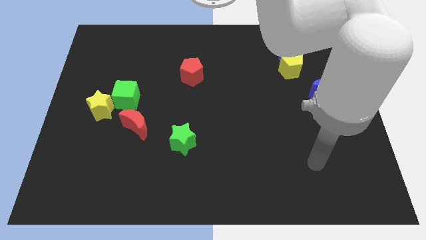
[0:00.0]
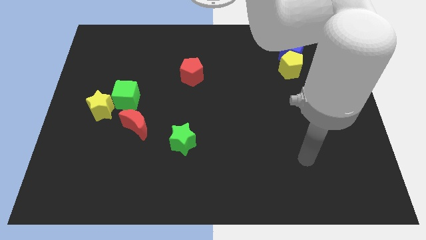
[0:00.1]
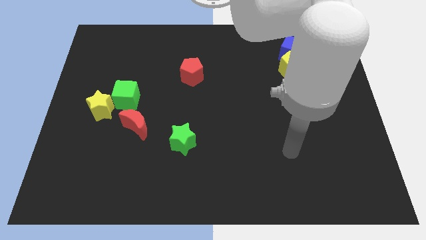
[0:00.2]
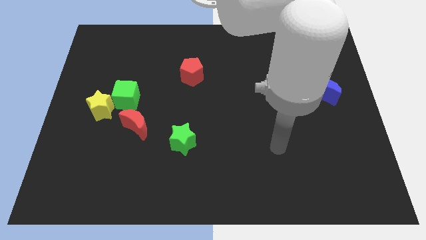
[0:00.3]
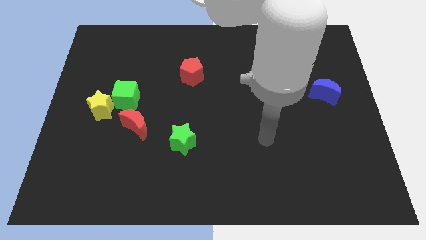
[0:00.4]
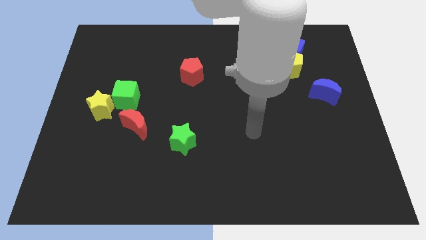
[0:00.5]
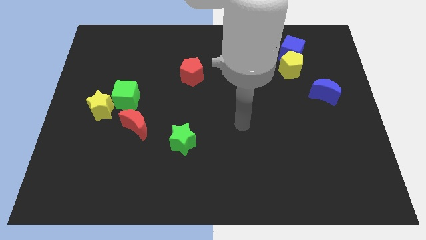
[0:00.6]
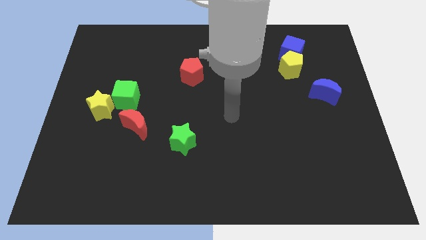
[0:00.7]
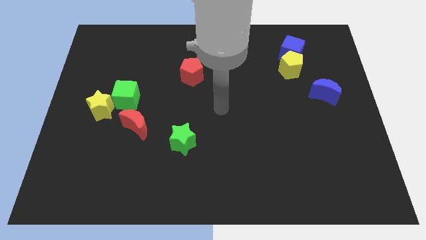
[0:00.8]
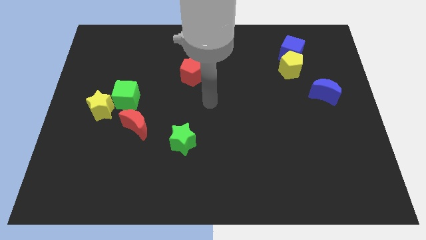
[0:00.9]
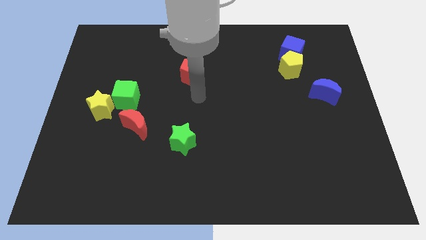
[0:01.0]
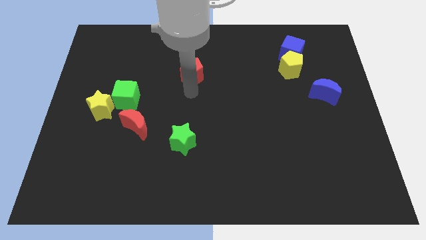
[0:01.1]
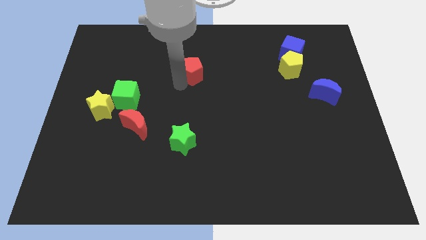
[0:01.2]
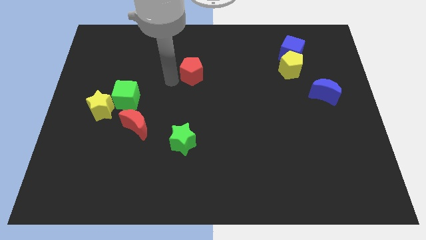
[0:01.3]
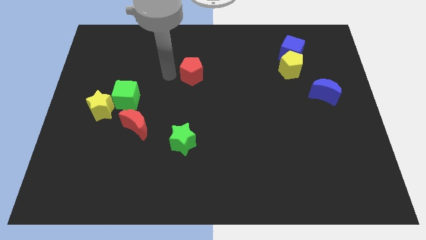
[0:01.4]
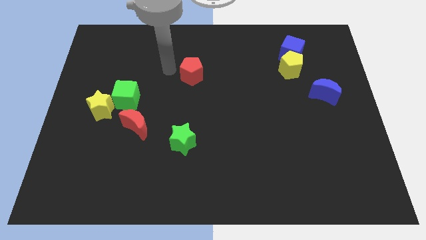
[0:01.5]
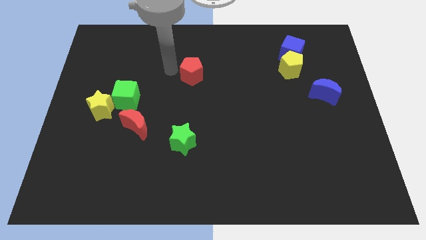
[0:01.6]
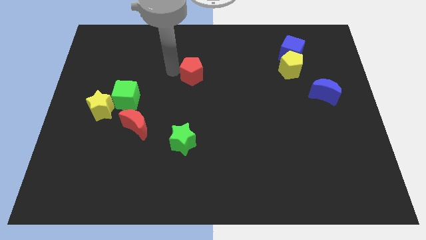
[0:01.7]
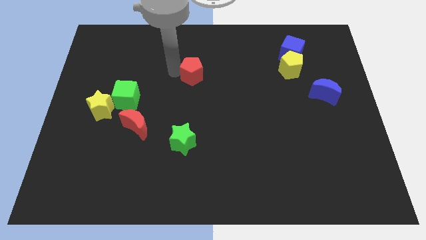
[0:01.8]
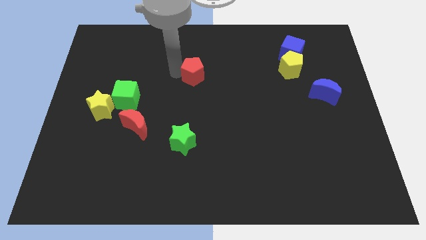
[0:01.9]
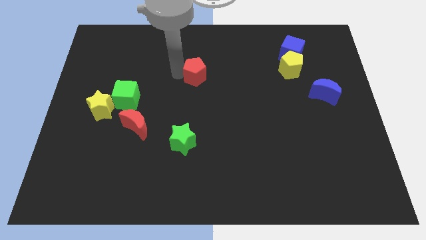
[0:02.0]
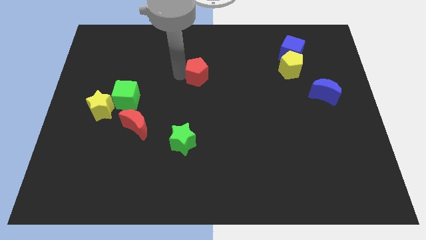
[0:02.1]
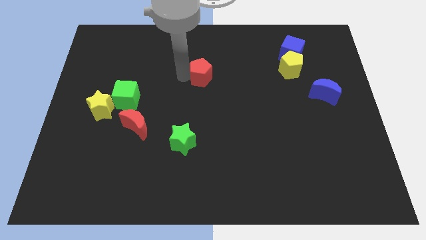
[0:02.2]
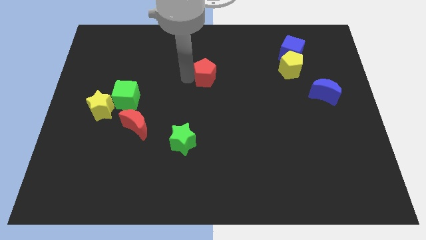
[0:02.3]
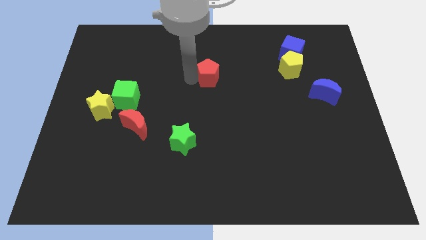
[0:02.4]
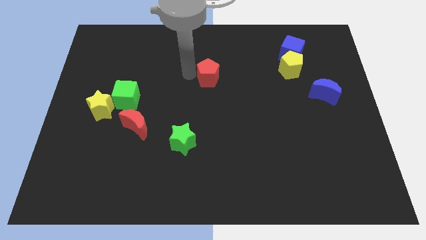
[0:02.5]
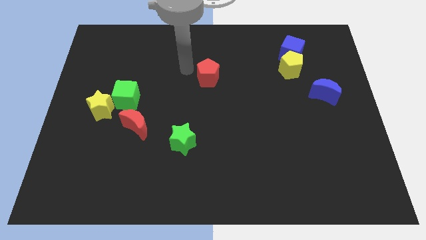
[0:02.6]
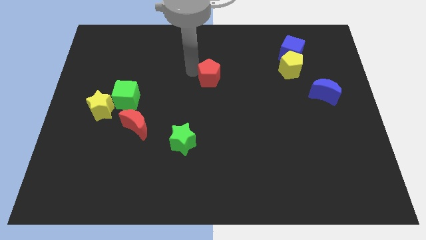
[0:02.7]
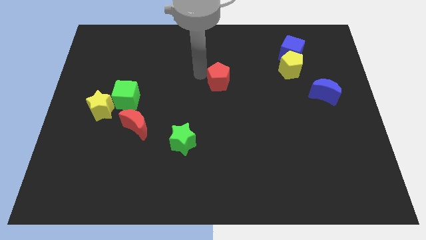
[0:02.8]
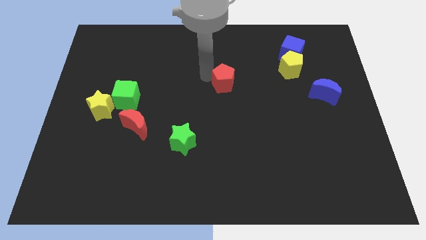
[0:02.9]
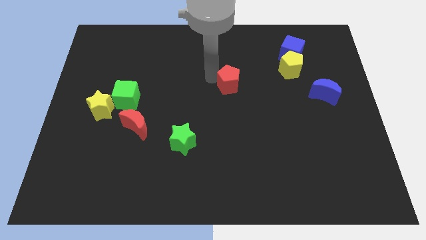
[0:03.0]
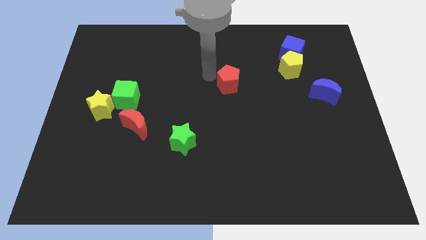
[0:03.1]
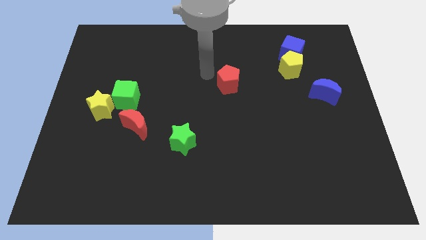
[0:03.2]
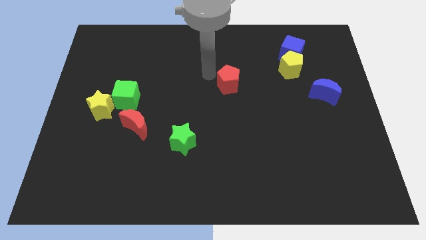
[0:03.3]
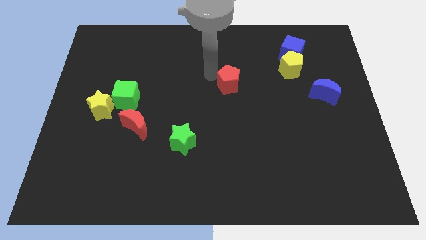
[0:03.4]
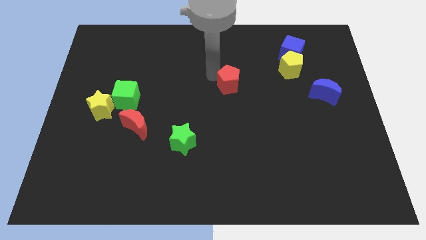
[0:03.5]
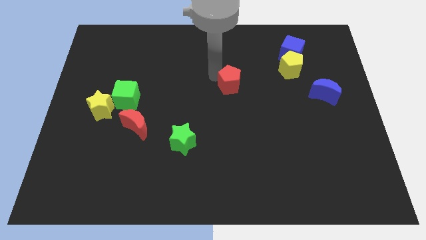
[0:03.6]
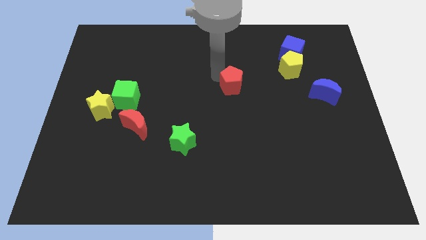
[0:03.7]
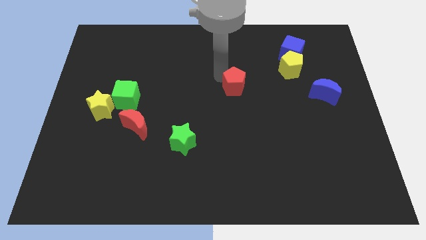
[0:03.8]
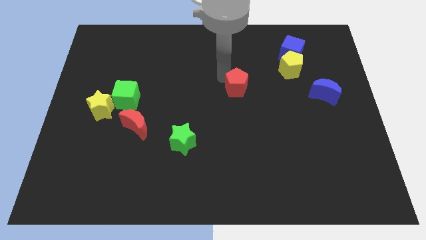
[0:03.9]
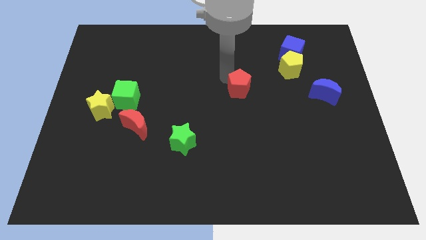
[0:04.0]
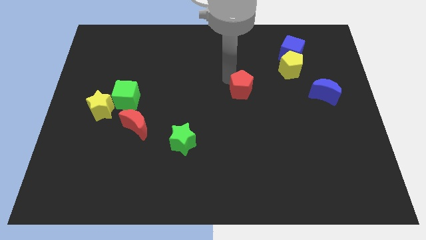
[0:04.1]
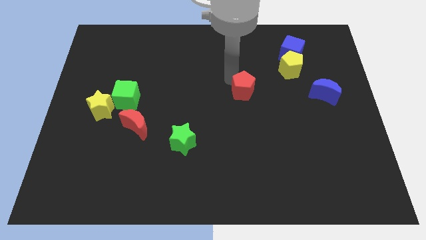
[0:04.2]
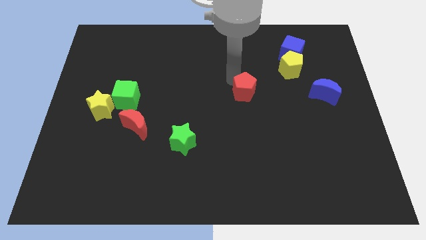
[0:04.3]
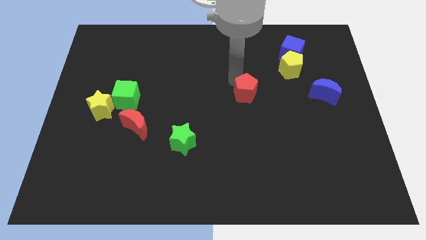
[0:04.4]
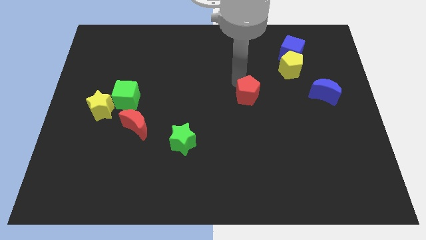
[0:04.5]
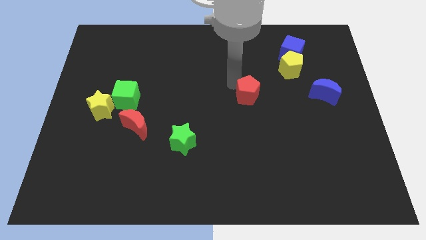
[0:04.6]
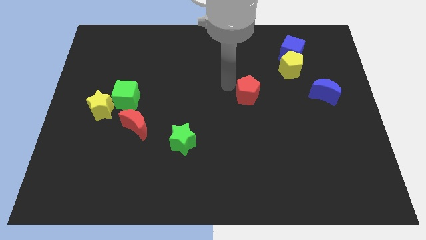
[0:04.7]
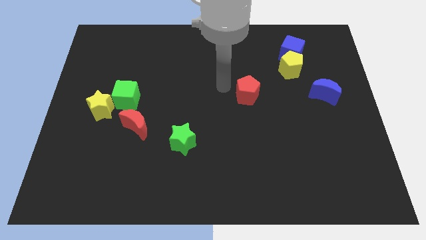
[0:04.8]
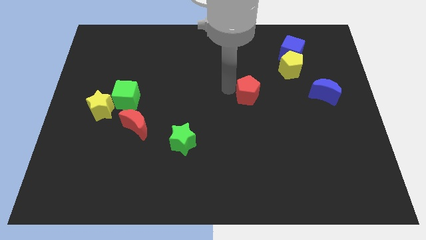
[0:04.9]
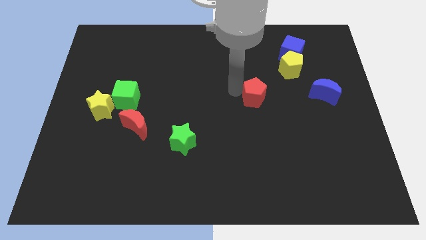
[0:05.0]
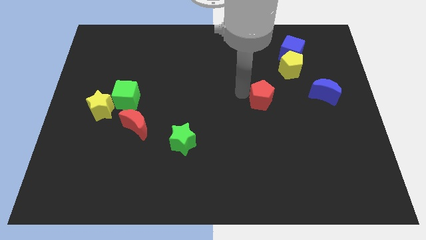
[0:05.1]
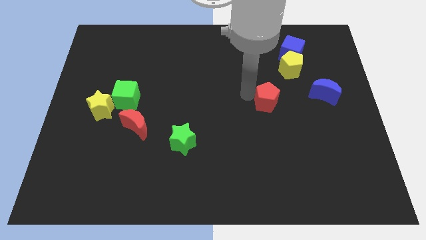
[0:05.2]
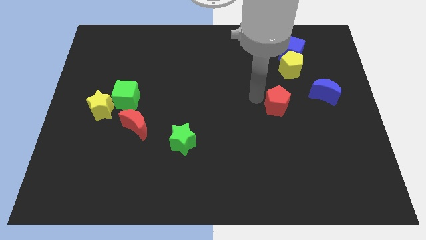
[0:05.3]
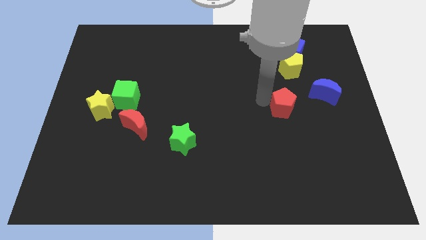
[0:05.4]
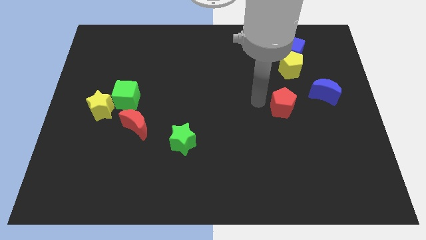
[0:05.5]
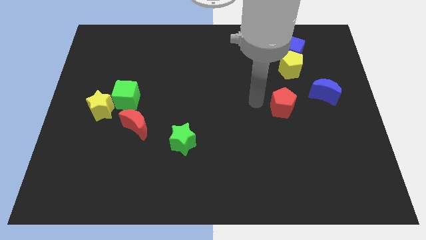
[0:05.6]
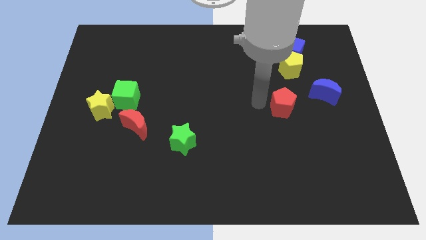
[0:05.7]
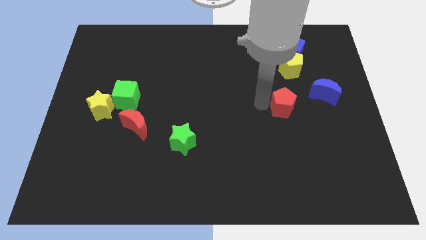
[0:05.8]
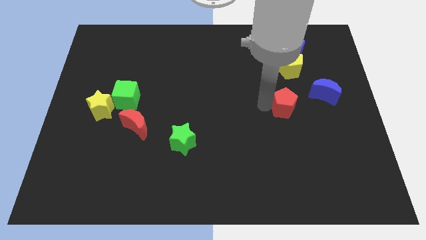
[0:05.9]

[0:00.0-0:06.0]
move the red pentagon diagonally down and to the left of the blue moon

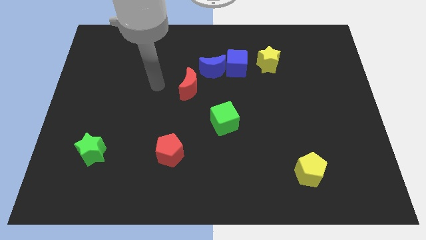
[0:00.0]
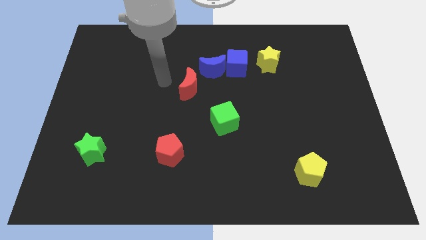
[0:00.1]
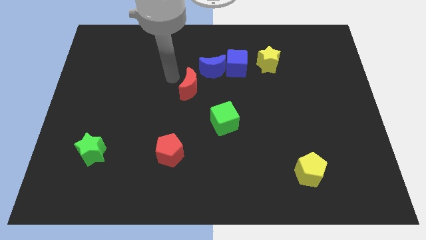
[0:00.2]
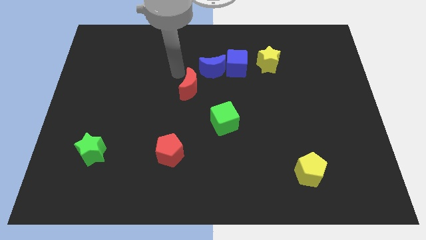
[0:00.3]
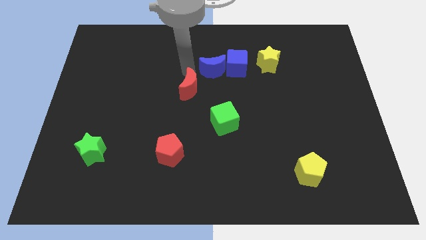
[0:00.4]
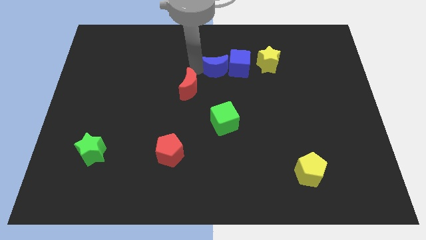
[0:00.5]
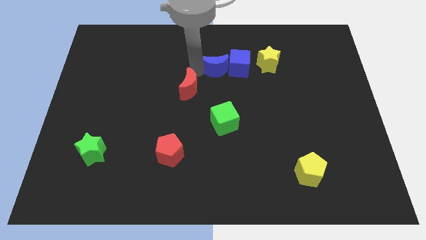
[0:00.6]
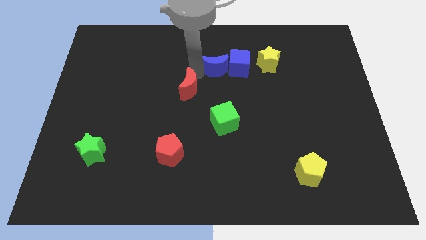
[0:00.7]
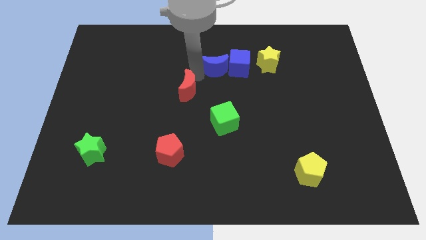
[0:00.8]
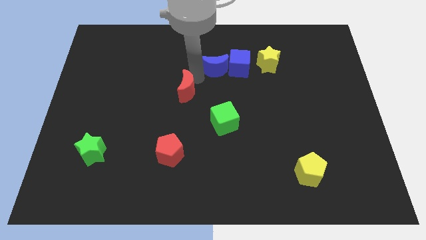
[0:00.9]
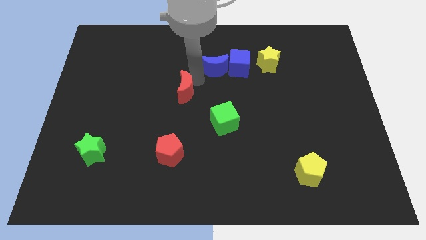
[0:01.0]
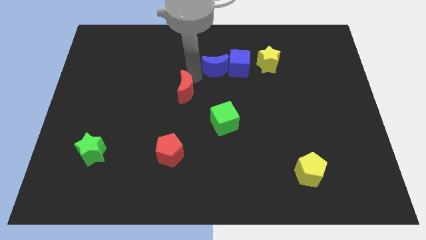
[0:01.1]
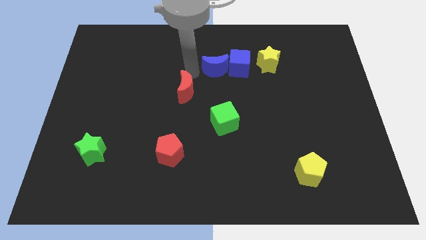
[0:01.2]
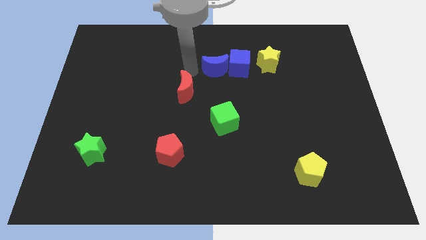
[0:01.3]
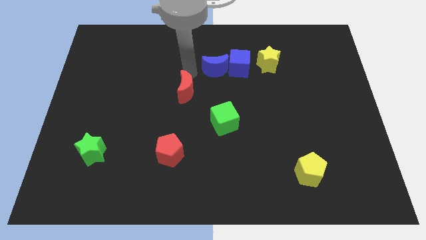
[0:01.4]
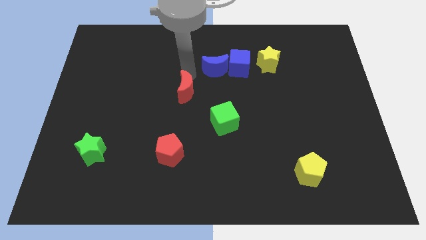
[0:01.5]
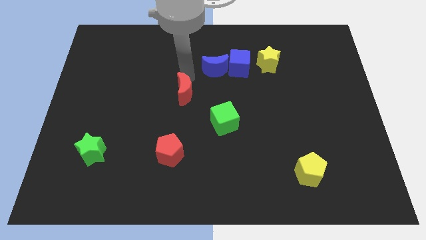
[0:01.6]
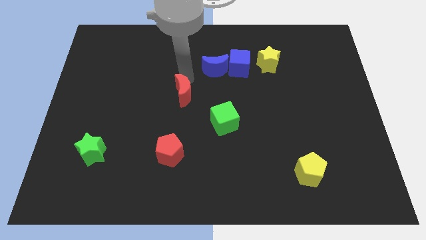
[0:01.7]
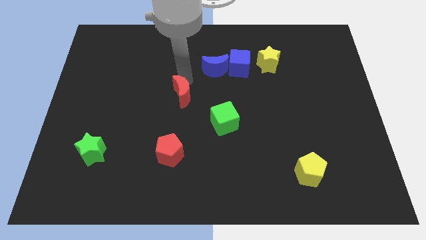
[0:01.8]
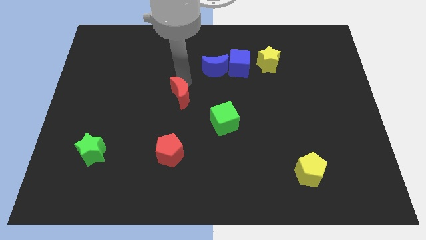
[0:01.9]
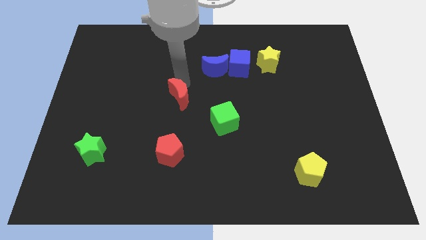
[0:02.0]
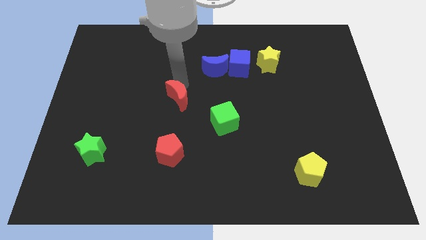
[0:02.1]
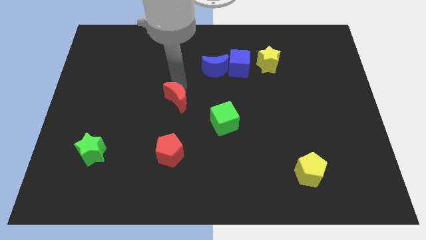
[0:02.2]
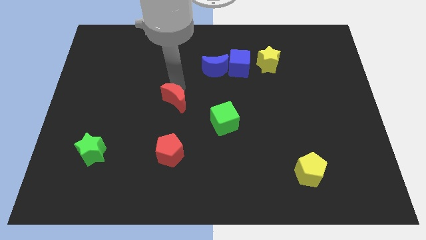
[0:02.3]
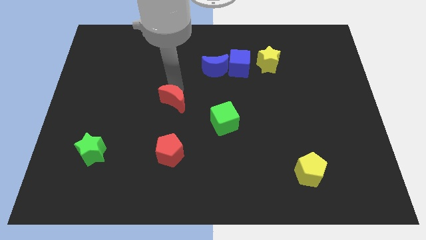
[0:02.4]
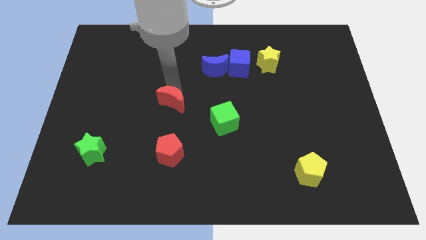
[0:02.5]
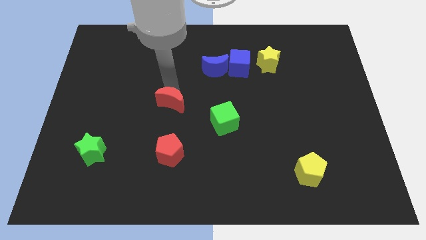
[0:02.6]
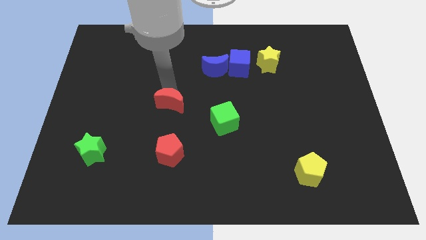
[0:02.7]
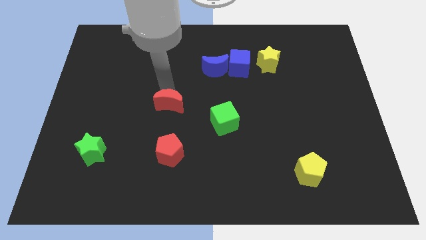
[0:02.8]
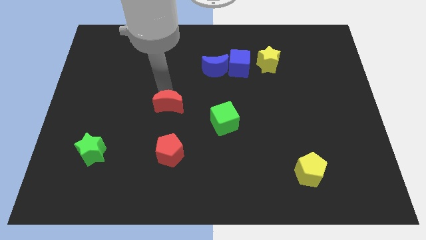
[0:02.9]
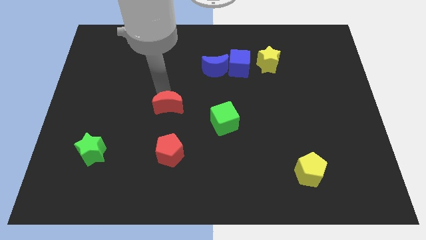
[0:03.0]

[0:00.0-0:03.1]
slide the red moon to the left side of the green cube
